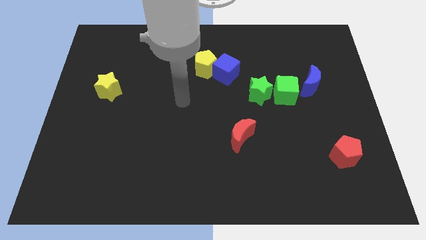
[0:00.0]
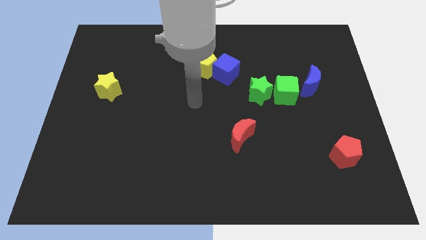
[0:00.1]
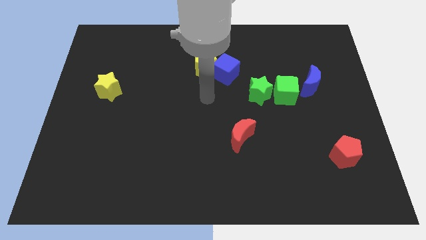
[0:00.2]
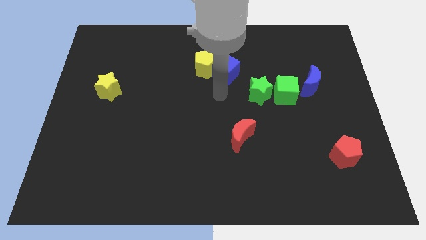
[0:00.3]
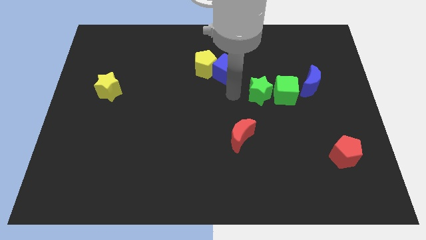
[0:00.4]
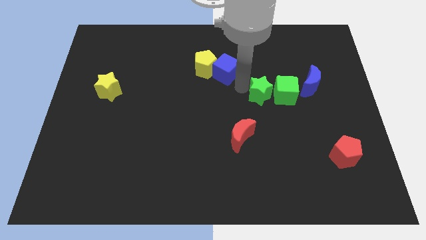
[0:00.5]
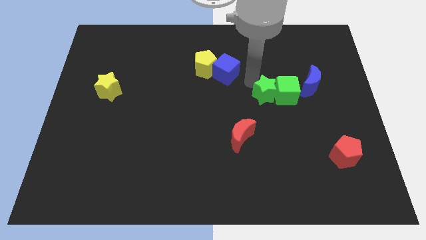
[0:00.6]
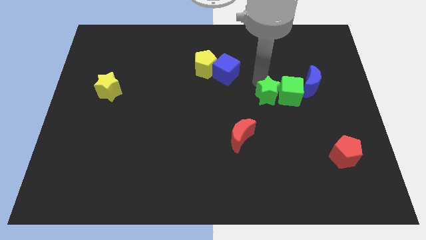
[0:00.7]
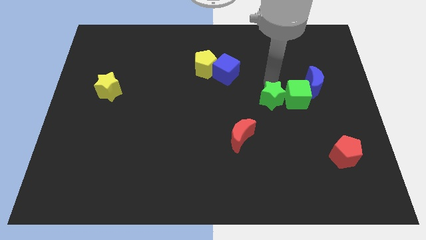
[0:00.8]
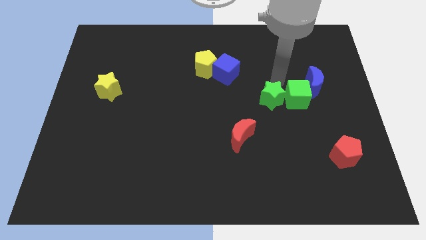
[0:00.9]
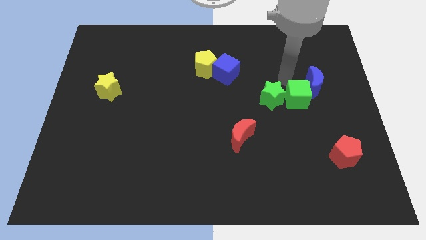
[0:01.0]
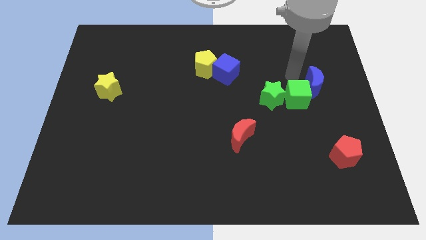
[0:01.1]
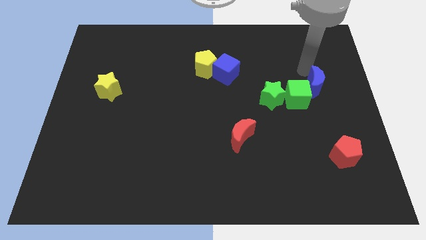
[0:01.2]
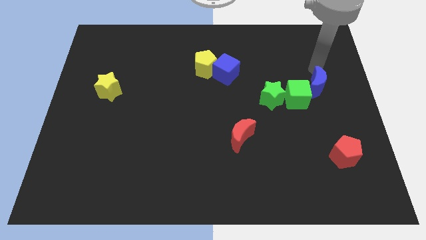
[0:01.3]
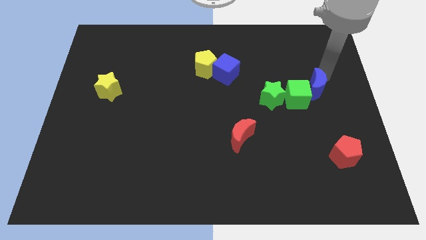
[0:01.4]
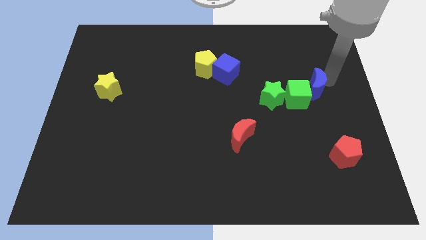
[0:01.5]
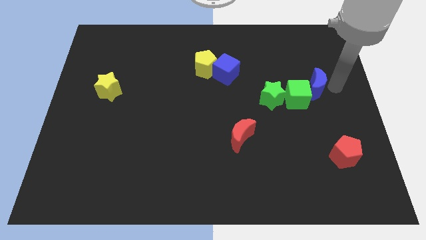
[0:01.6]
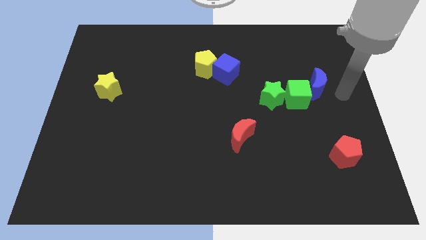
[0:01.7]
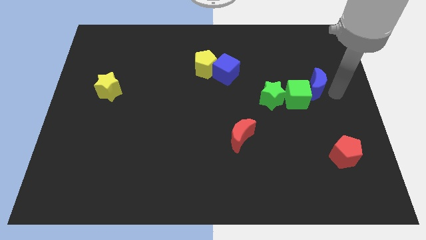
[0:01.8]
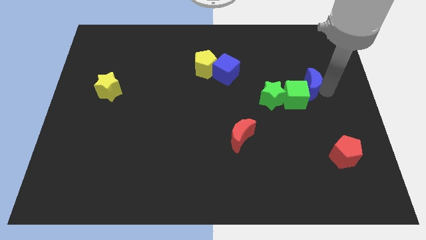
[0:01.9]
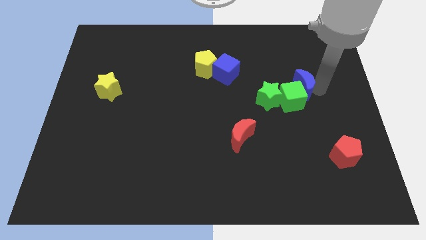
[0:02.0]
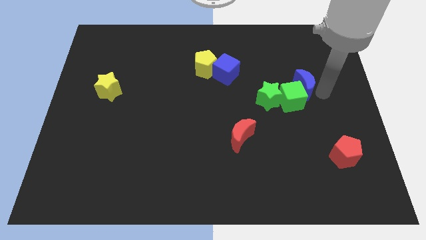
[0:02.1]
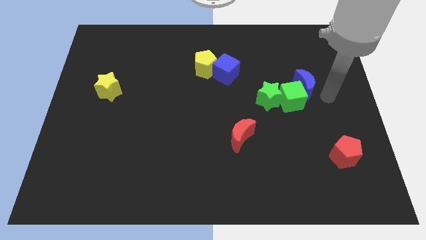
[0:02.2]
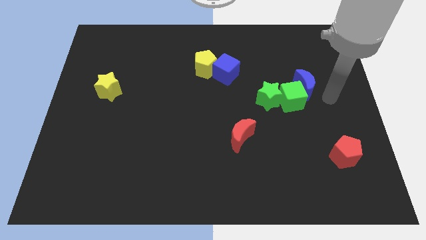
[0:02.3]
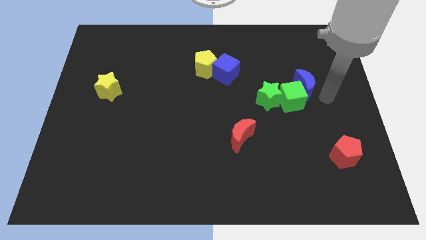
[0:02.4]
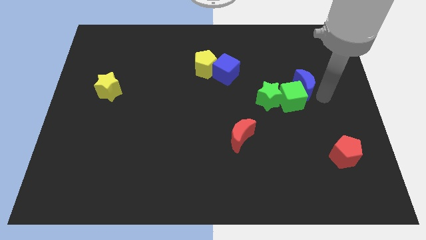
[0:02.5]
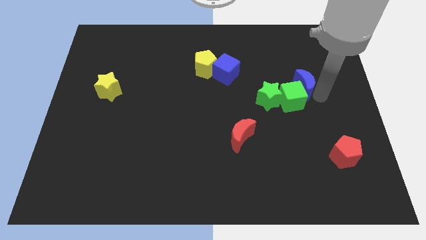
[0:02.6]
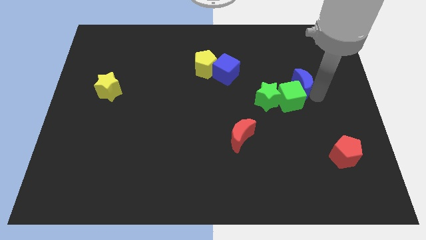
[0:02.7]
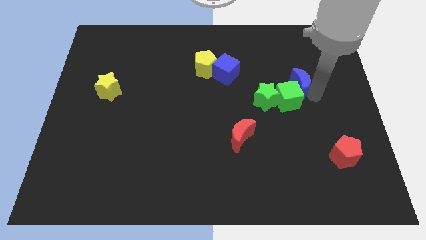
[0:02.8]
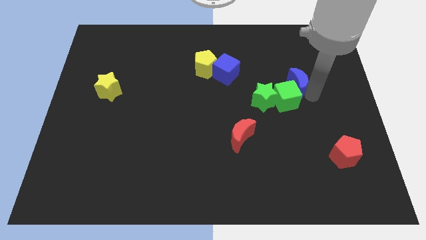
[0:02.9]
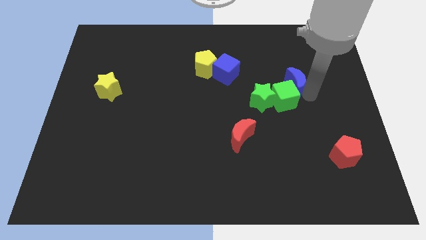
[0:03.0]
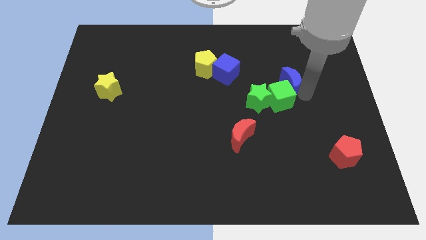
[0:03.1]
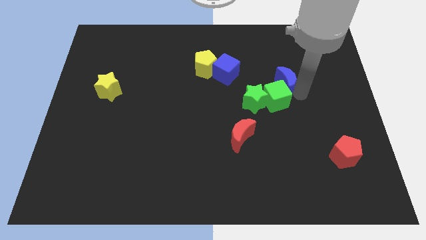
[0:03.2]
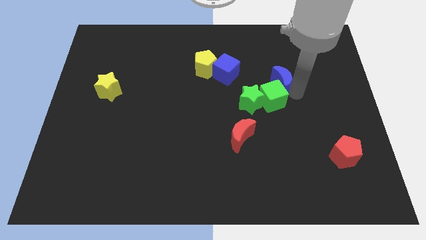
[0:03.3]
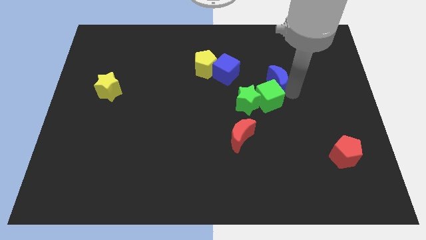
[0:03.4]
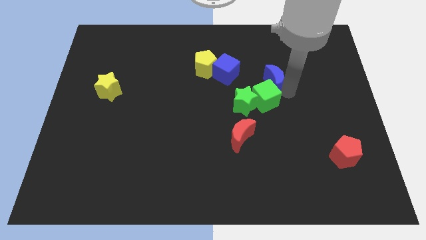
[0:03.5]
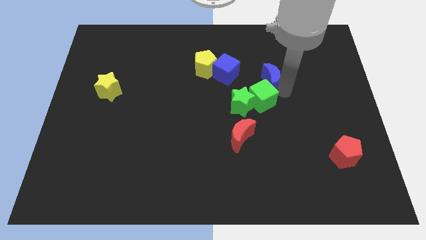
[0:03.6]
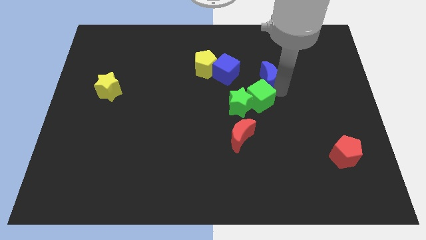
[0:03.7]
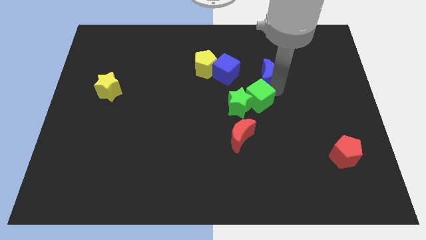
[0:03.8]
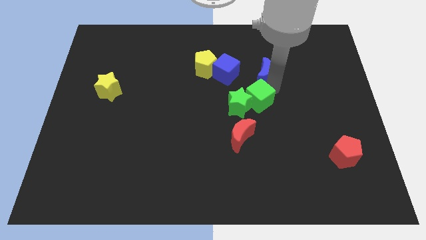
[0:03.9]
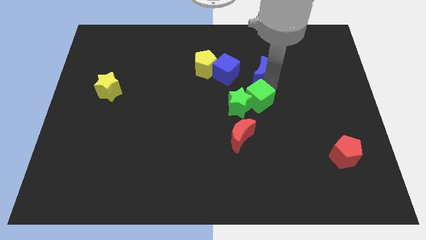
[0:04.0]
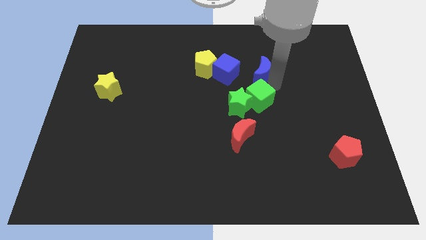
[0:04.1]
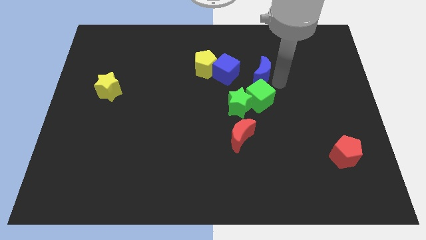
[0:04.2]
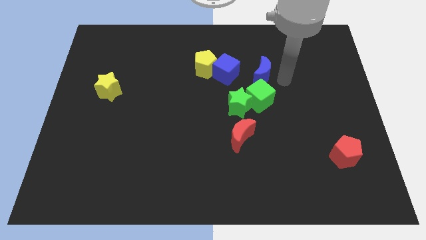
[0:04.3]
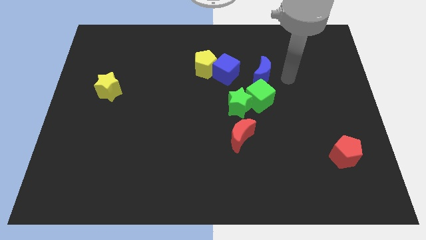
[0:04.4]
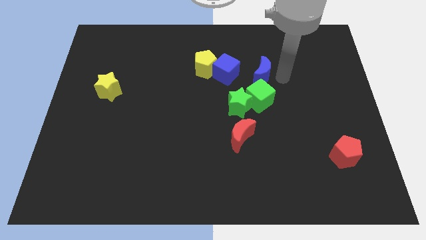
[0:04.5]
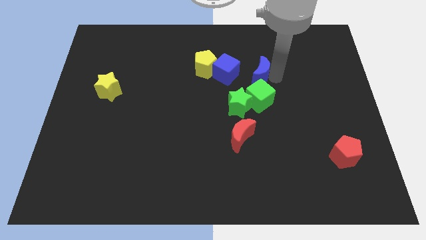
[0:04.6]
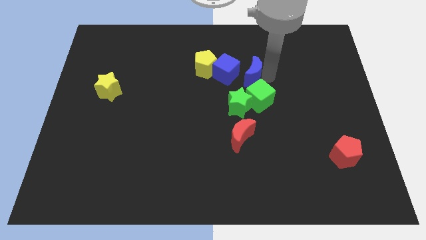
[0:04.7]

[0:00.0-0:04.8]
slide the blue moon to the top of the green star

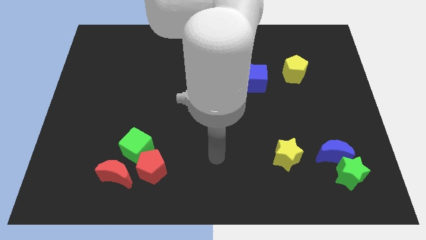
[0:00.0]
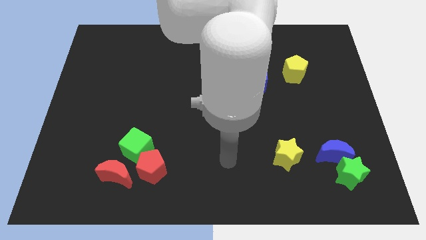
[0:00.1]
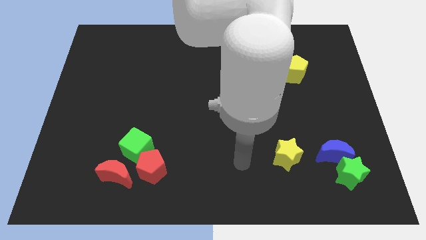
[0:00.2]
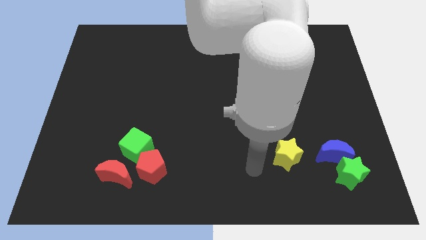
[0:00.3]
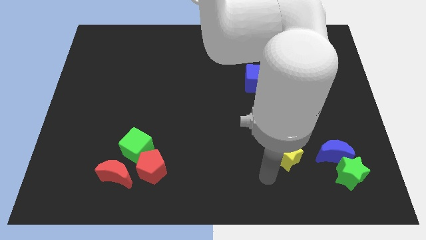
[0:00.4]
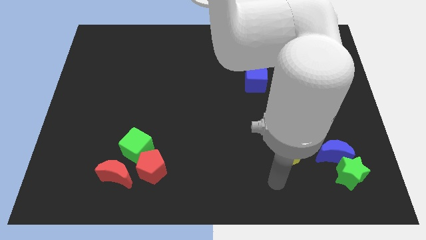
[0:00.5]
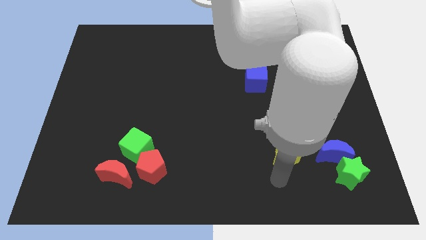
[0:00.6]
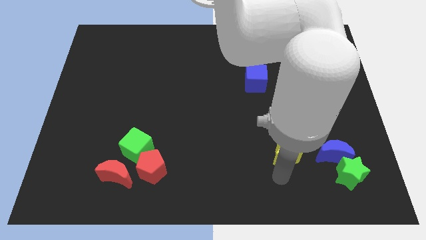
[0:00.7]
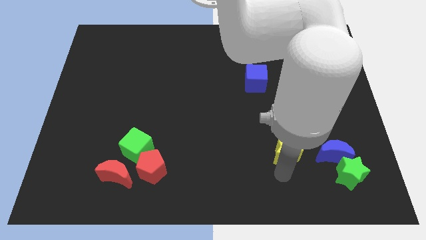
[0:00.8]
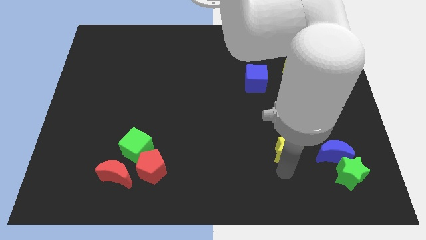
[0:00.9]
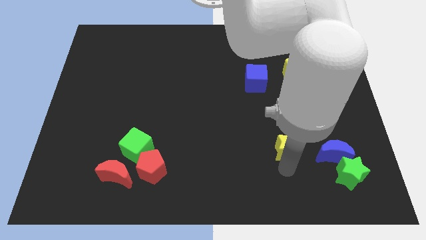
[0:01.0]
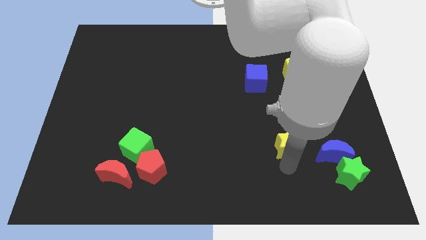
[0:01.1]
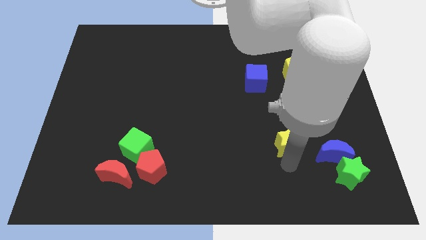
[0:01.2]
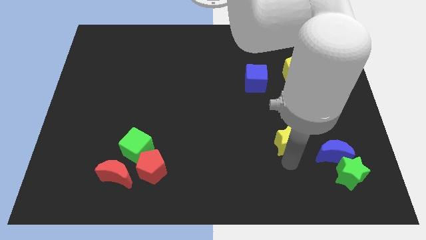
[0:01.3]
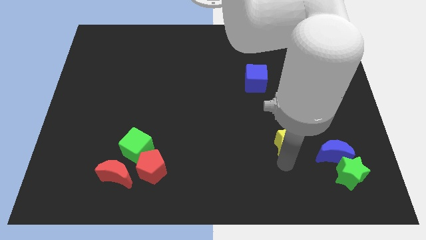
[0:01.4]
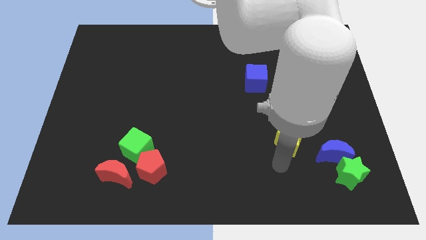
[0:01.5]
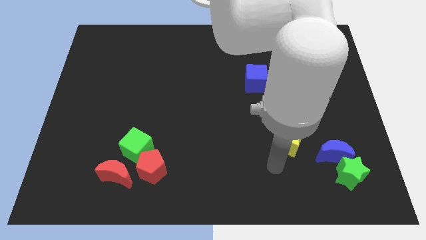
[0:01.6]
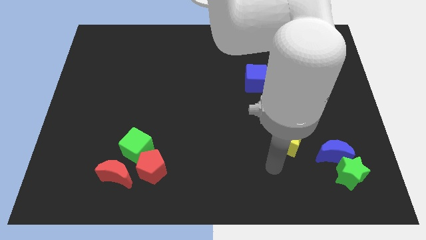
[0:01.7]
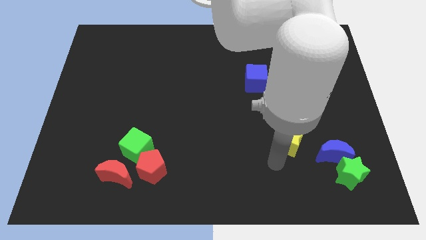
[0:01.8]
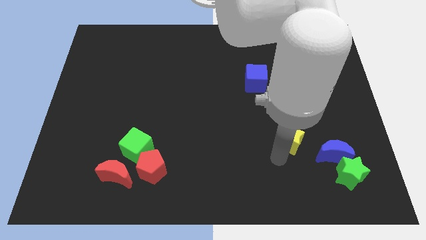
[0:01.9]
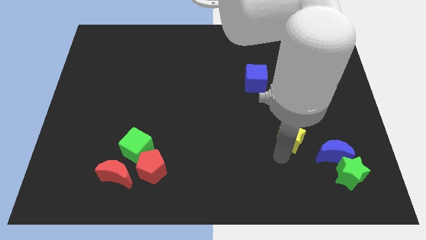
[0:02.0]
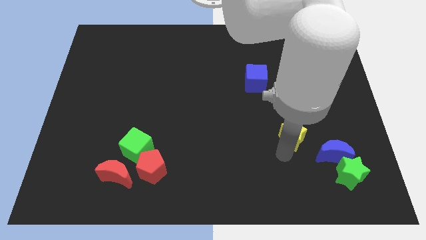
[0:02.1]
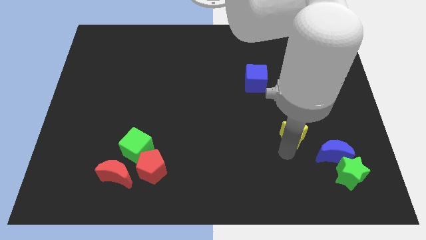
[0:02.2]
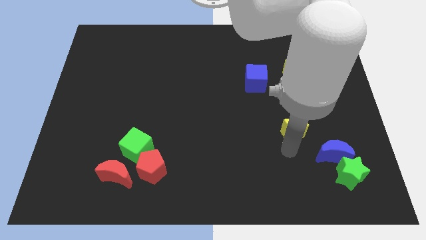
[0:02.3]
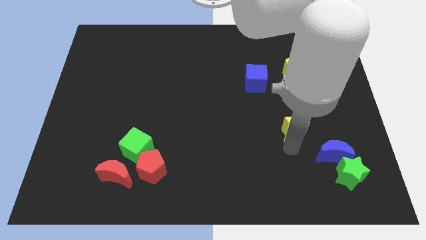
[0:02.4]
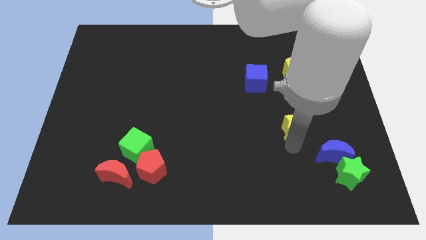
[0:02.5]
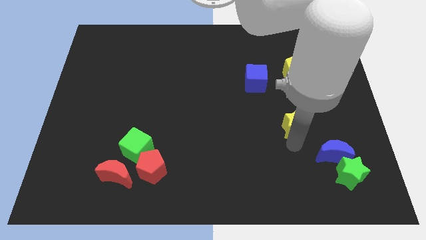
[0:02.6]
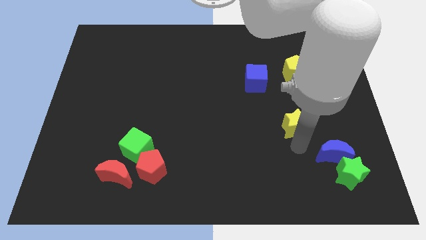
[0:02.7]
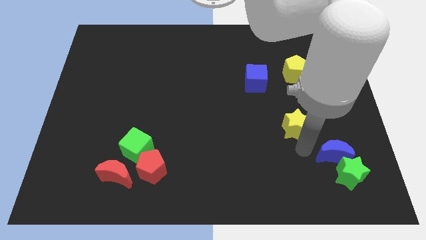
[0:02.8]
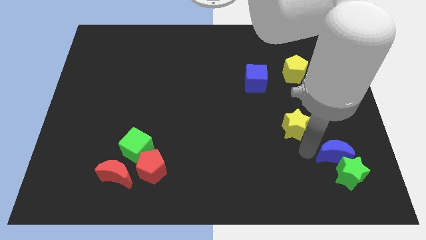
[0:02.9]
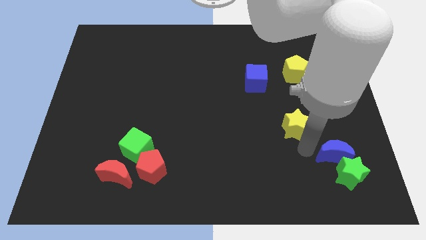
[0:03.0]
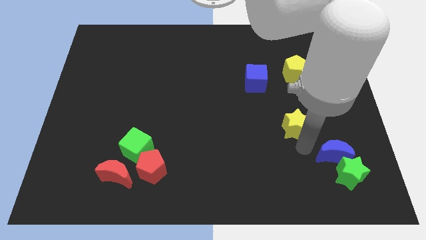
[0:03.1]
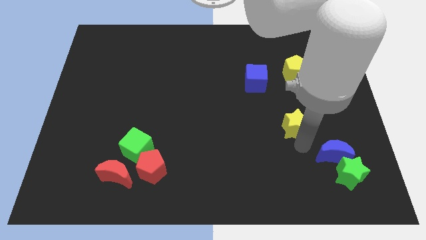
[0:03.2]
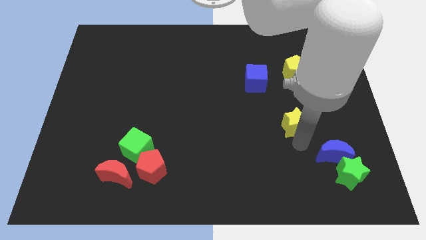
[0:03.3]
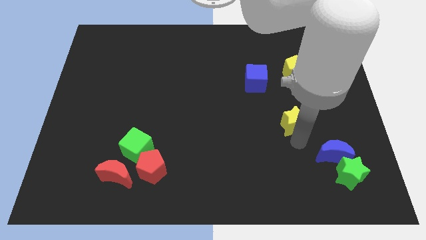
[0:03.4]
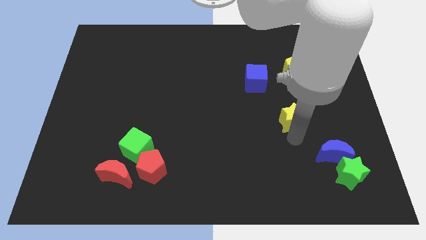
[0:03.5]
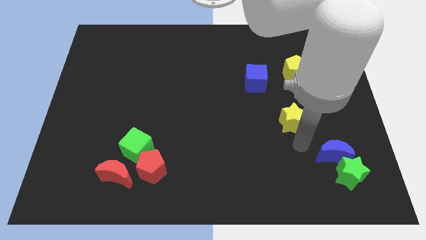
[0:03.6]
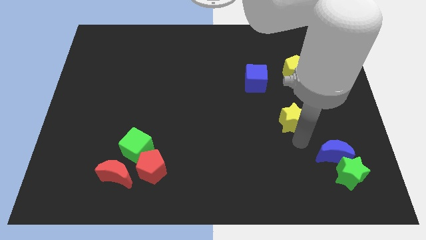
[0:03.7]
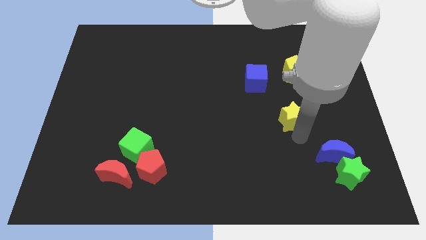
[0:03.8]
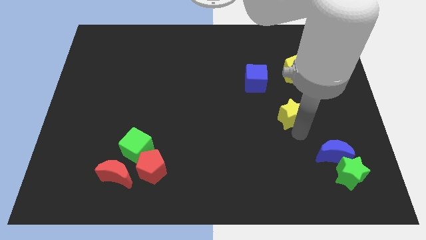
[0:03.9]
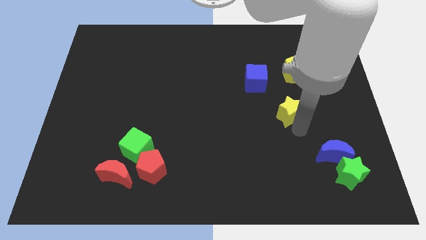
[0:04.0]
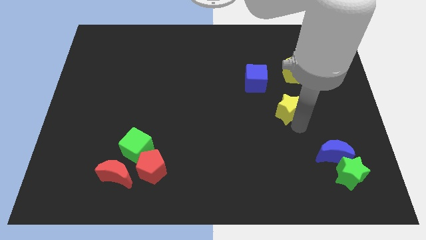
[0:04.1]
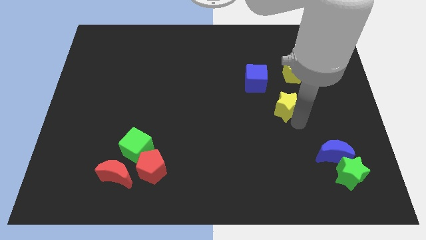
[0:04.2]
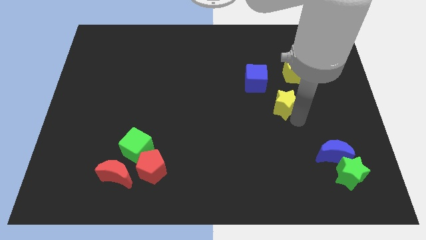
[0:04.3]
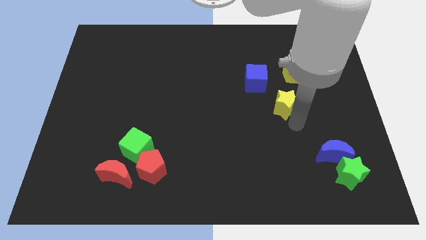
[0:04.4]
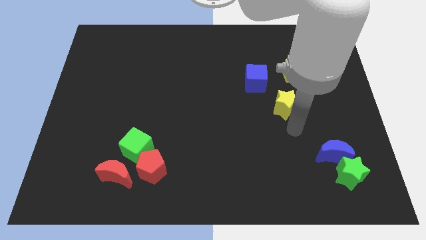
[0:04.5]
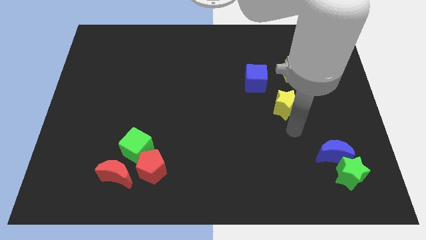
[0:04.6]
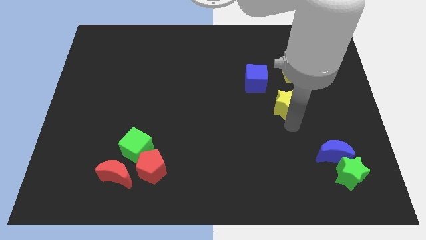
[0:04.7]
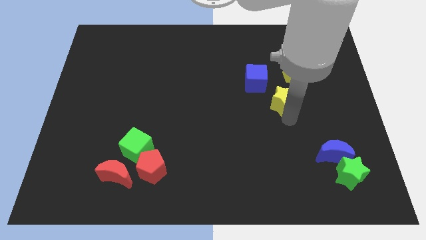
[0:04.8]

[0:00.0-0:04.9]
slide the yellow star diagonally down and to the left of the yellow pentagon
